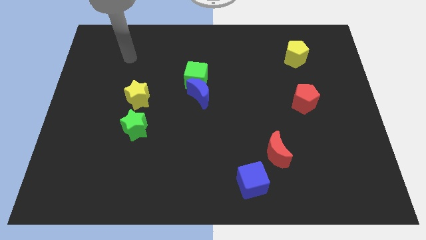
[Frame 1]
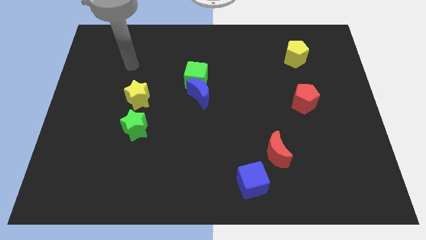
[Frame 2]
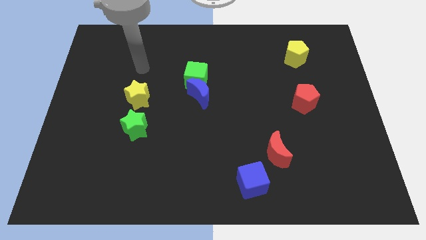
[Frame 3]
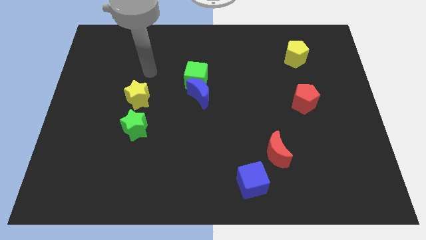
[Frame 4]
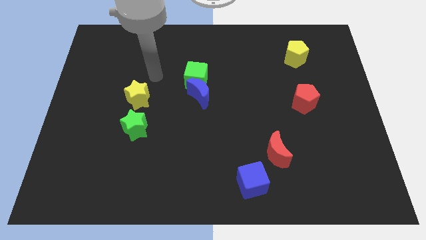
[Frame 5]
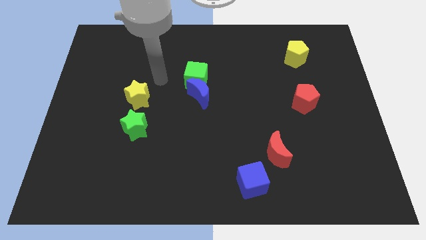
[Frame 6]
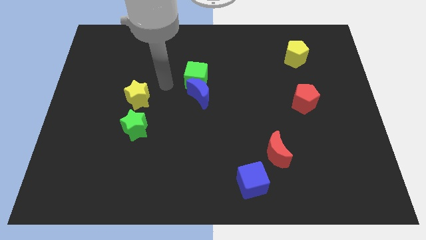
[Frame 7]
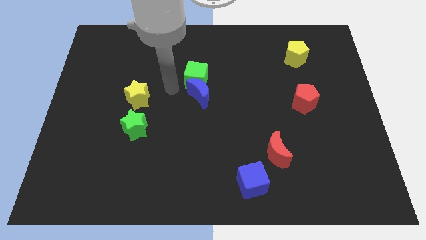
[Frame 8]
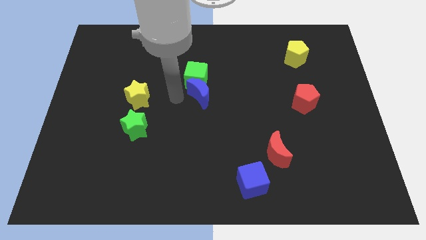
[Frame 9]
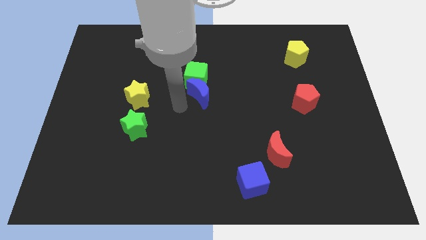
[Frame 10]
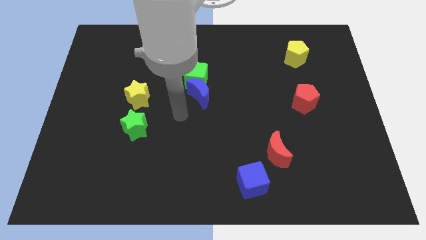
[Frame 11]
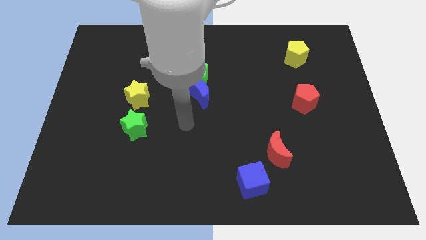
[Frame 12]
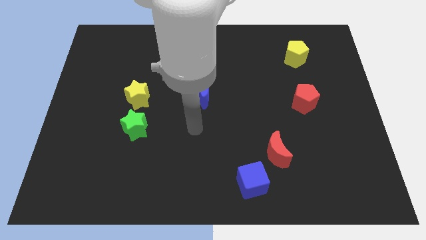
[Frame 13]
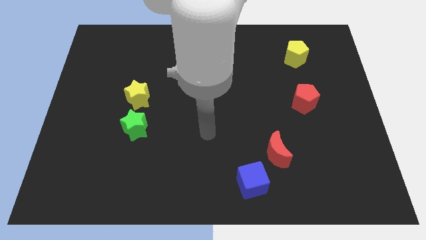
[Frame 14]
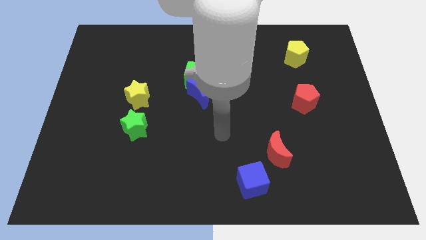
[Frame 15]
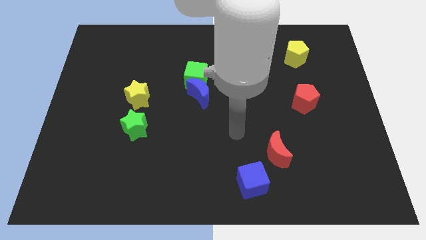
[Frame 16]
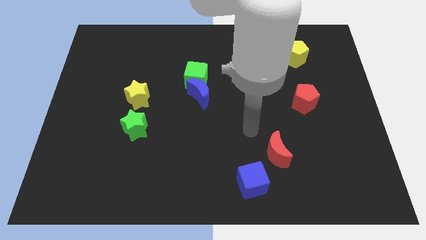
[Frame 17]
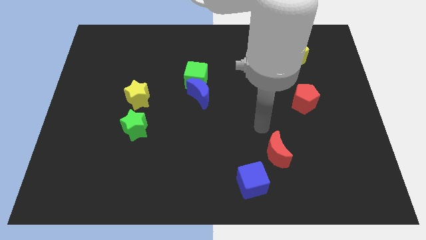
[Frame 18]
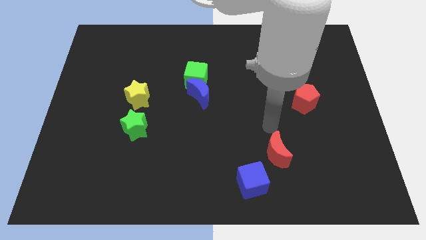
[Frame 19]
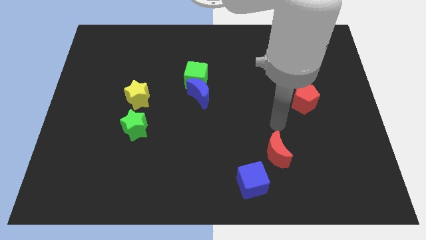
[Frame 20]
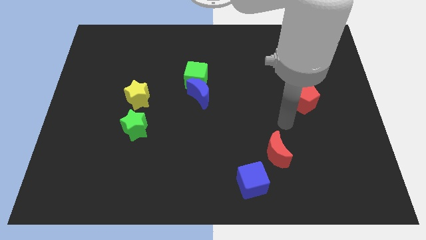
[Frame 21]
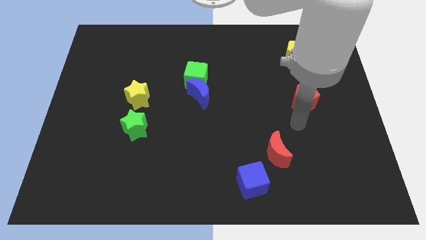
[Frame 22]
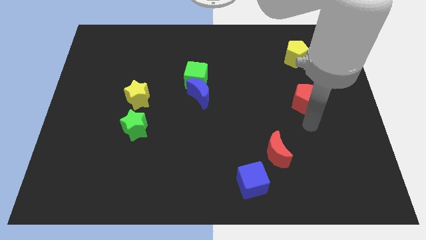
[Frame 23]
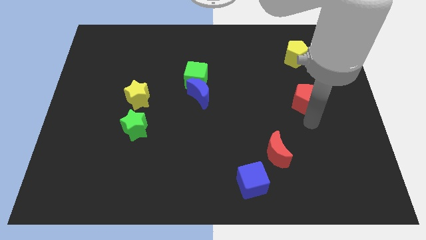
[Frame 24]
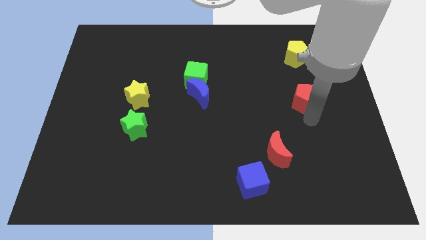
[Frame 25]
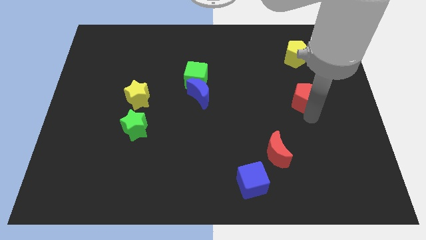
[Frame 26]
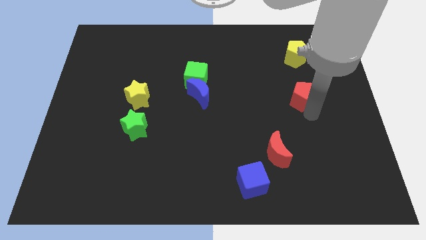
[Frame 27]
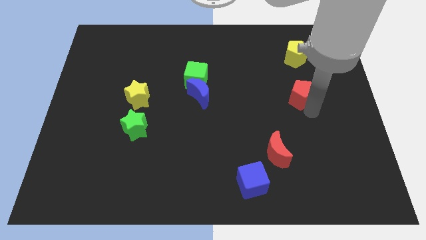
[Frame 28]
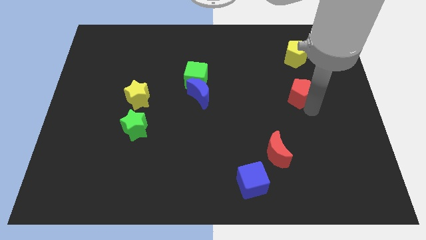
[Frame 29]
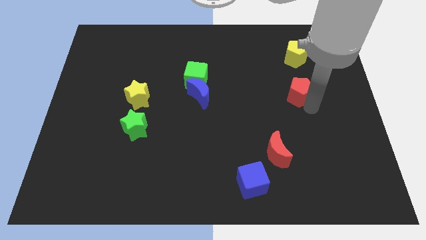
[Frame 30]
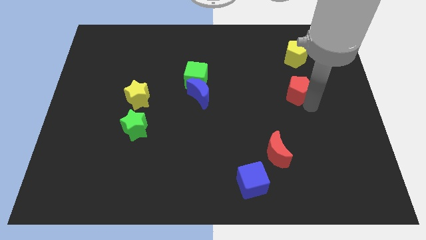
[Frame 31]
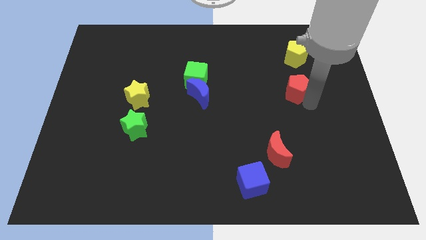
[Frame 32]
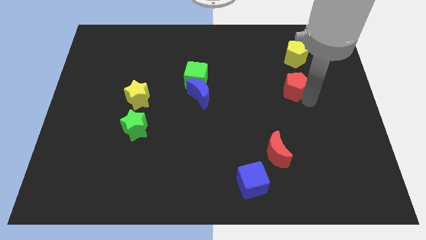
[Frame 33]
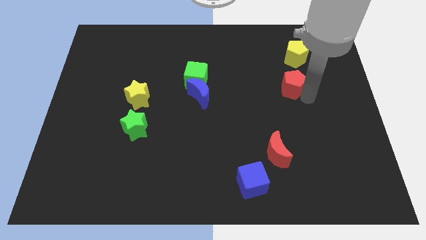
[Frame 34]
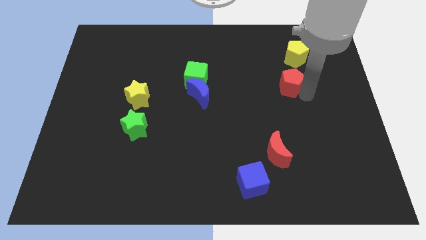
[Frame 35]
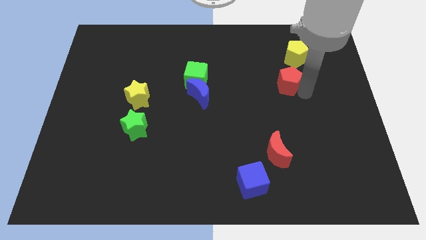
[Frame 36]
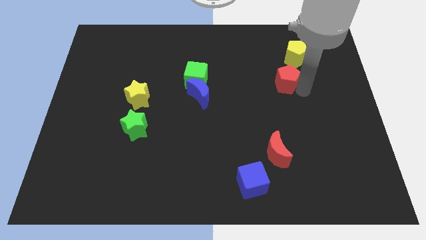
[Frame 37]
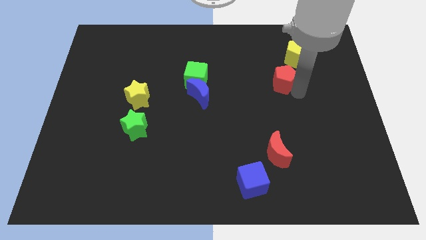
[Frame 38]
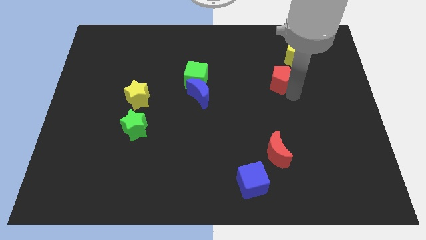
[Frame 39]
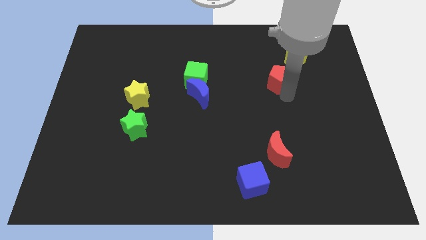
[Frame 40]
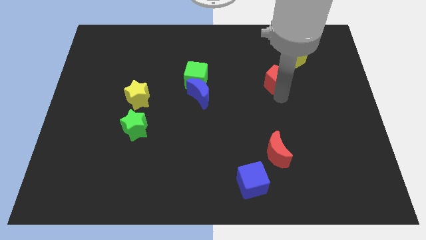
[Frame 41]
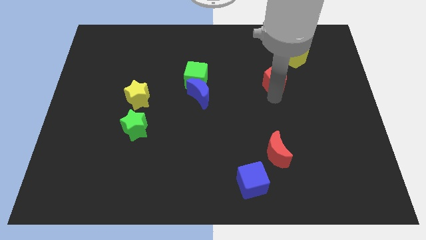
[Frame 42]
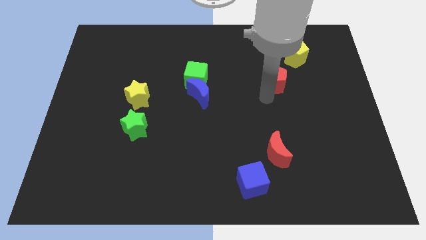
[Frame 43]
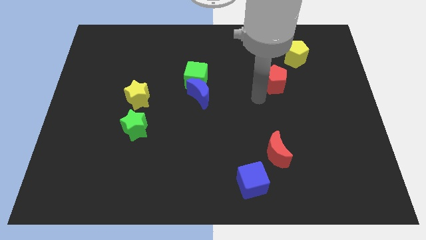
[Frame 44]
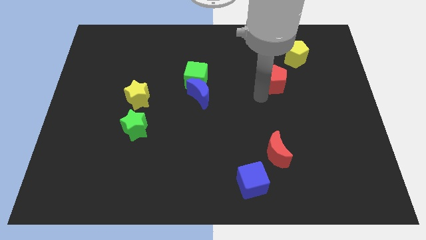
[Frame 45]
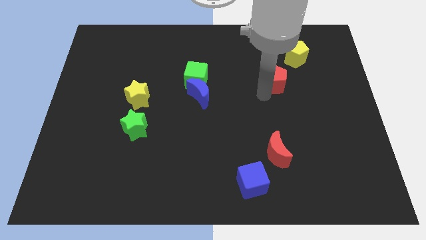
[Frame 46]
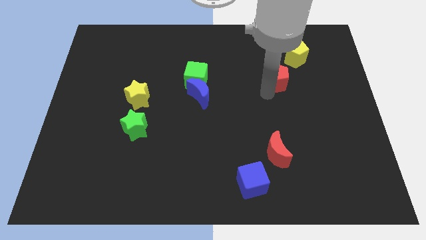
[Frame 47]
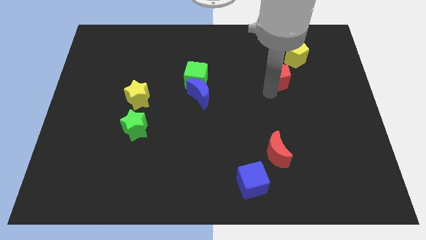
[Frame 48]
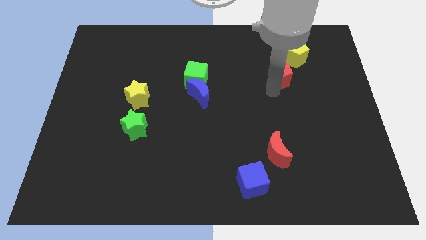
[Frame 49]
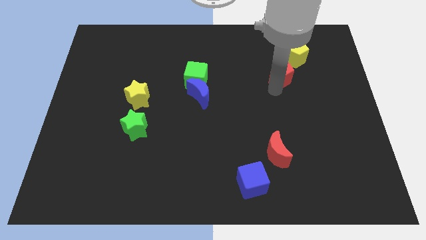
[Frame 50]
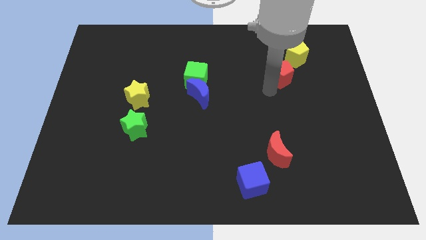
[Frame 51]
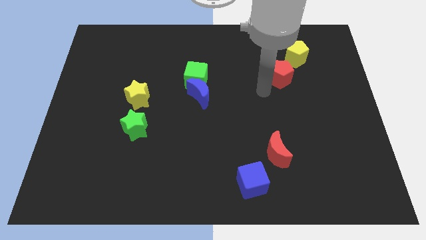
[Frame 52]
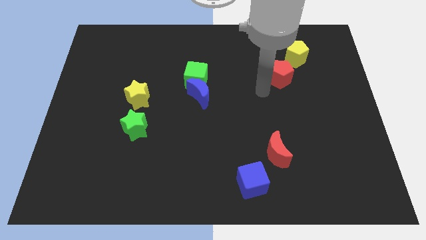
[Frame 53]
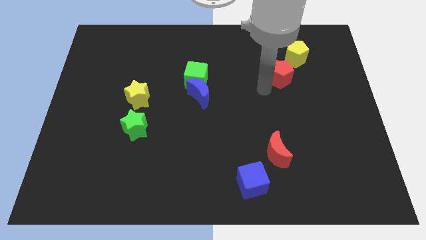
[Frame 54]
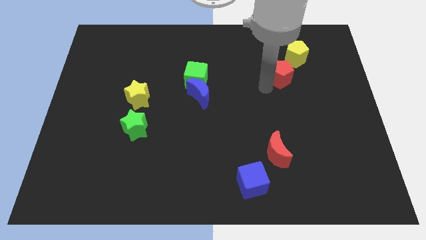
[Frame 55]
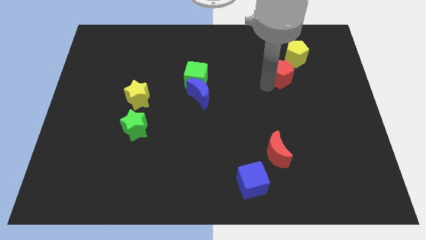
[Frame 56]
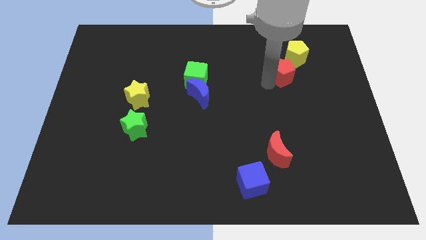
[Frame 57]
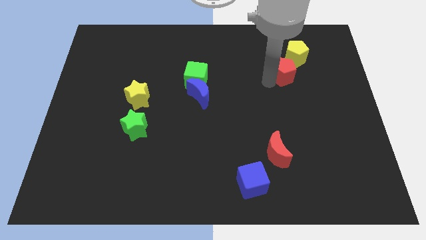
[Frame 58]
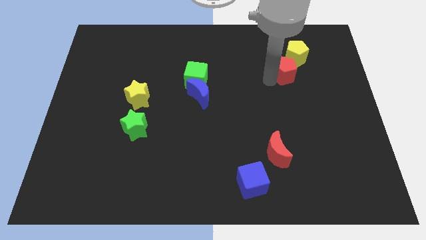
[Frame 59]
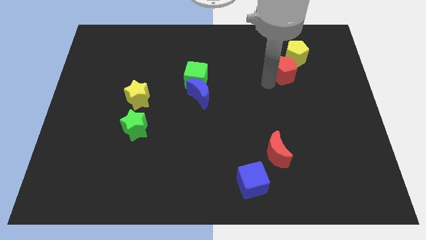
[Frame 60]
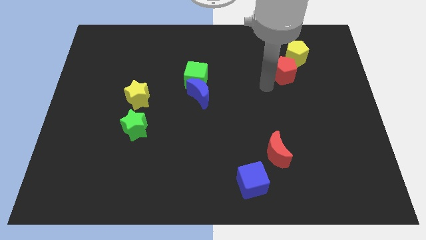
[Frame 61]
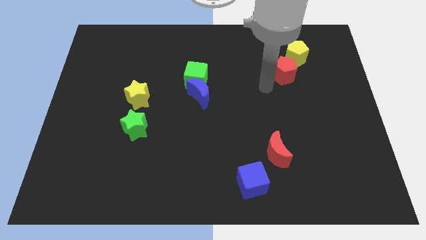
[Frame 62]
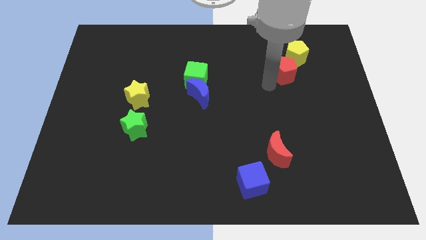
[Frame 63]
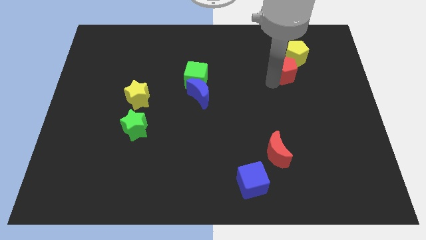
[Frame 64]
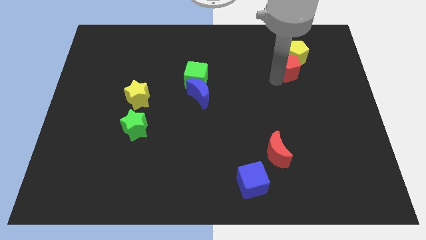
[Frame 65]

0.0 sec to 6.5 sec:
slide the red pentagon to the yellow pentagon

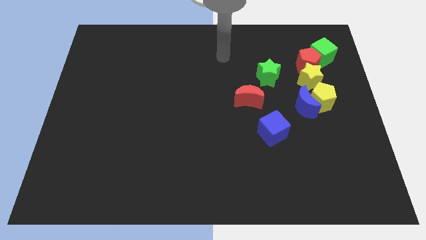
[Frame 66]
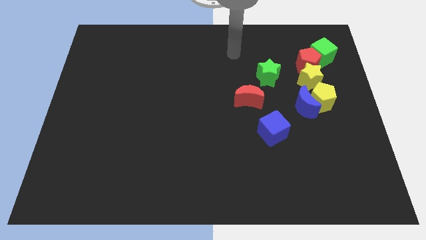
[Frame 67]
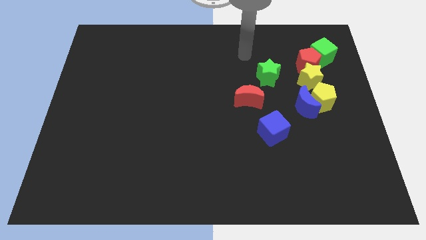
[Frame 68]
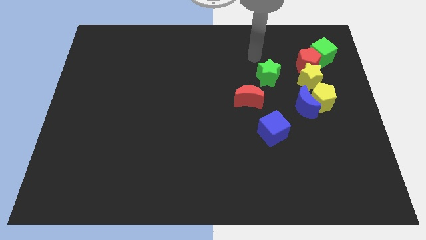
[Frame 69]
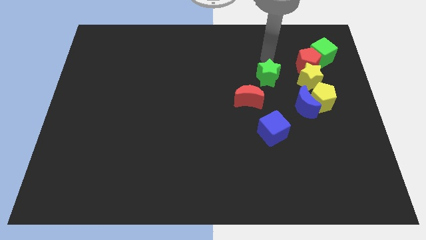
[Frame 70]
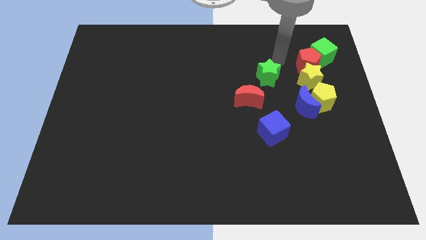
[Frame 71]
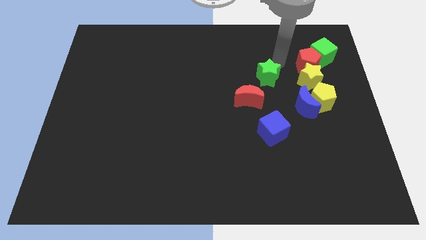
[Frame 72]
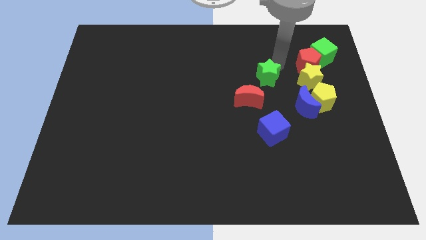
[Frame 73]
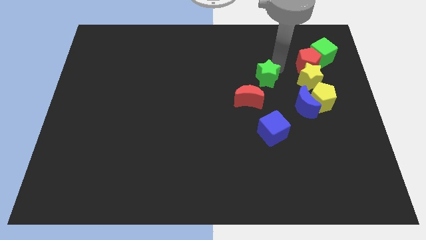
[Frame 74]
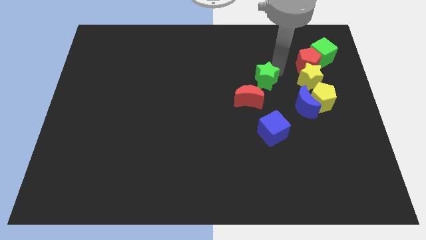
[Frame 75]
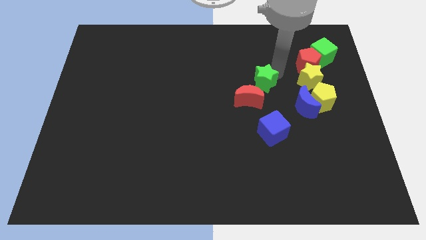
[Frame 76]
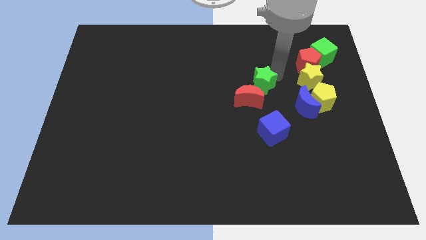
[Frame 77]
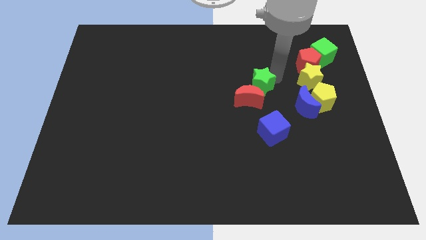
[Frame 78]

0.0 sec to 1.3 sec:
push the green star next to the red moon
